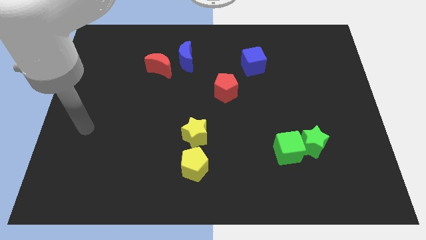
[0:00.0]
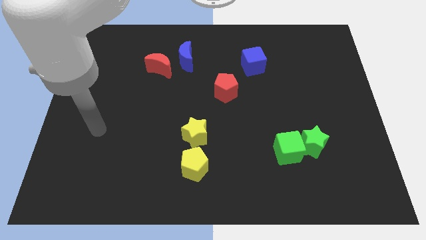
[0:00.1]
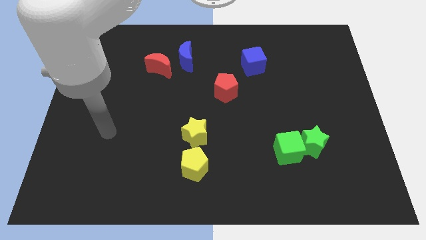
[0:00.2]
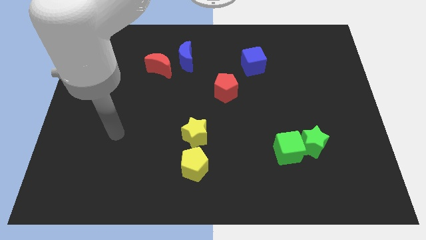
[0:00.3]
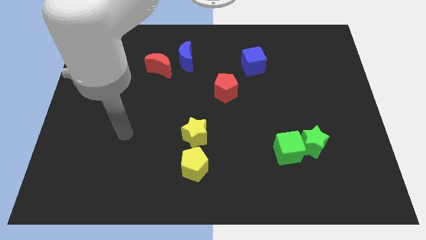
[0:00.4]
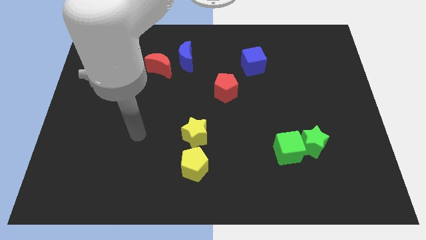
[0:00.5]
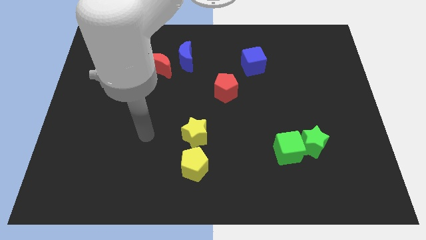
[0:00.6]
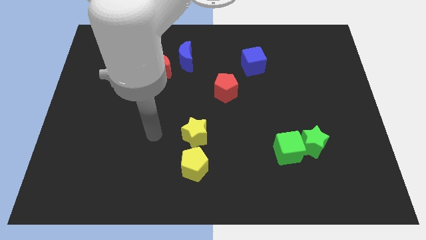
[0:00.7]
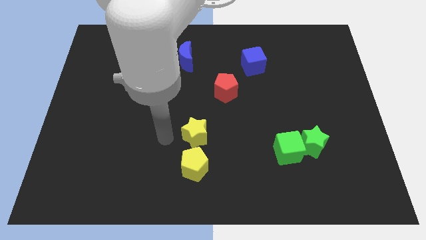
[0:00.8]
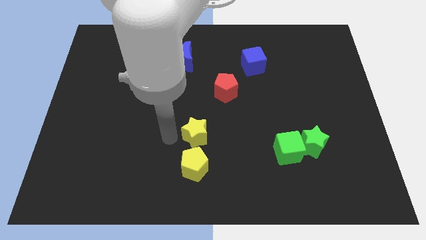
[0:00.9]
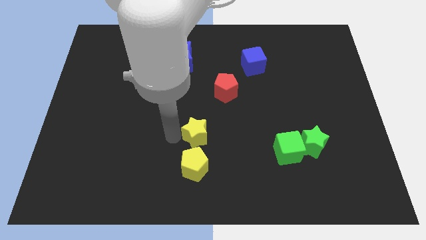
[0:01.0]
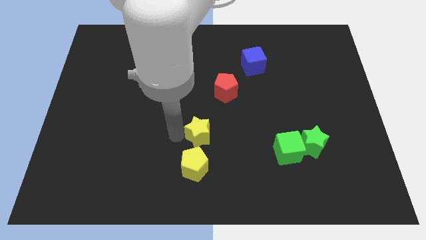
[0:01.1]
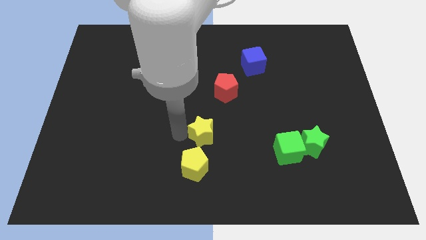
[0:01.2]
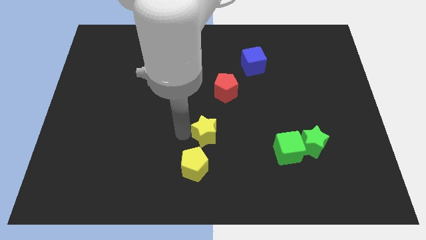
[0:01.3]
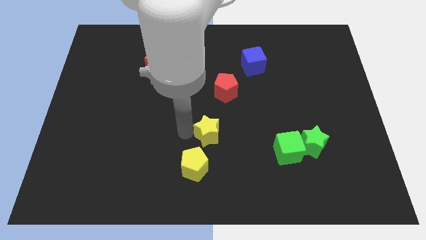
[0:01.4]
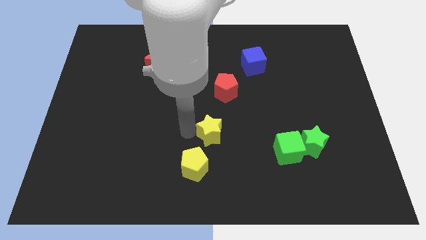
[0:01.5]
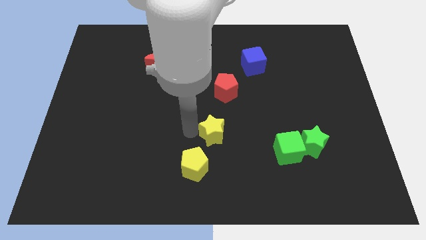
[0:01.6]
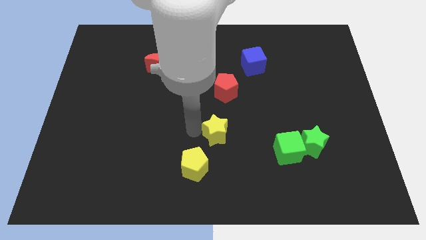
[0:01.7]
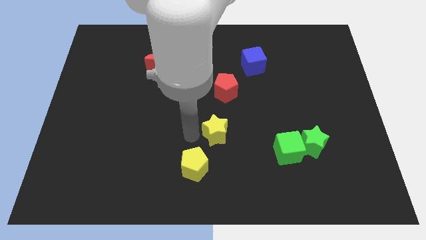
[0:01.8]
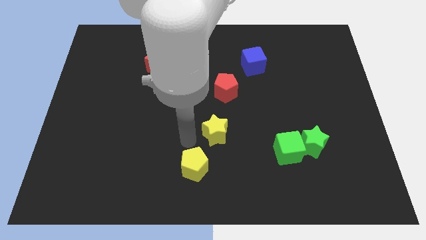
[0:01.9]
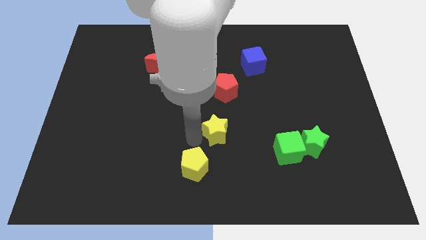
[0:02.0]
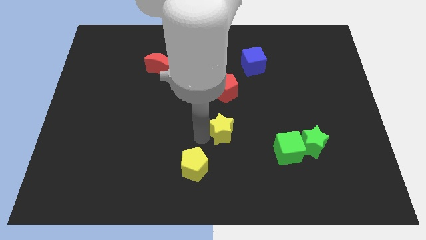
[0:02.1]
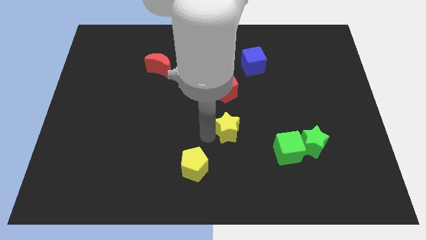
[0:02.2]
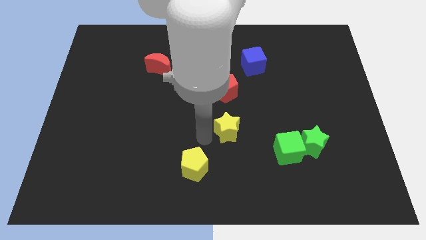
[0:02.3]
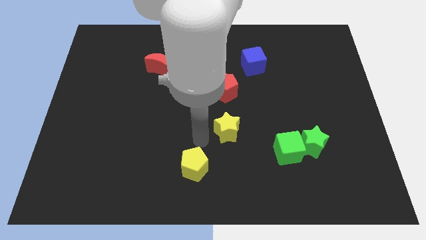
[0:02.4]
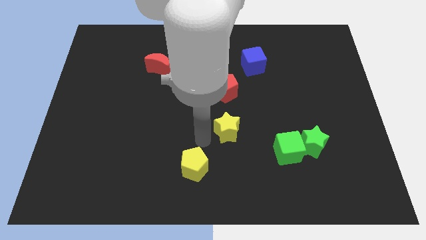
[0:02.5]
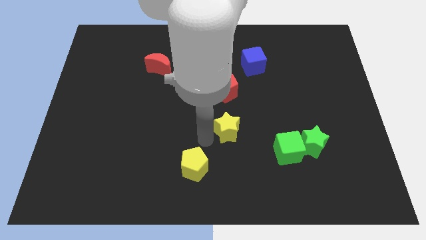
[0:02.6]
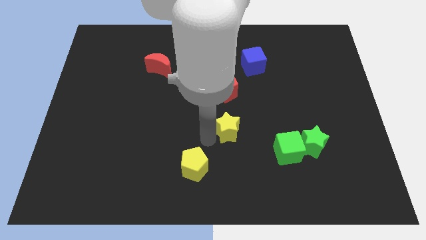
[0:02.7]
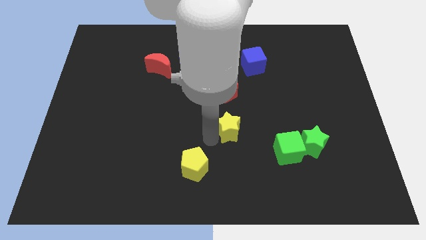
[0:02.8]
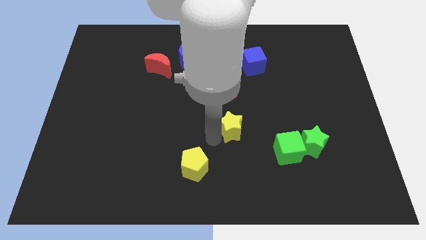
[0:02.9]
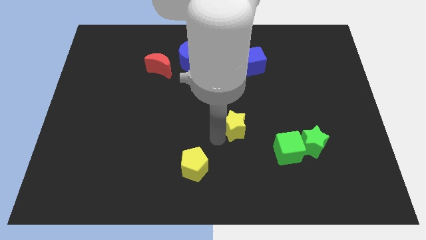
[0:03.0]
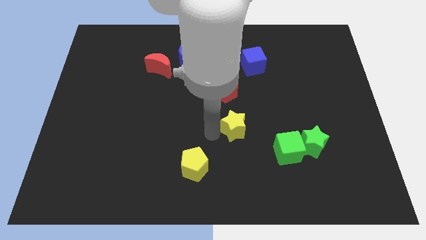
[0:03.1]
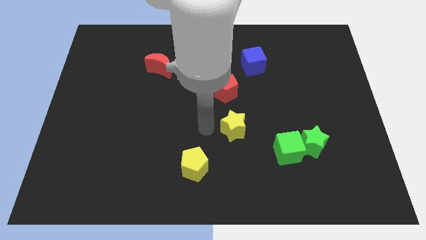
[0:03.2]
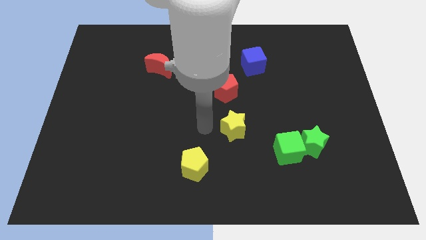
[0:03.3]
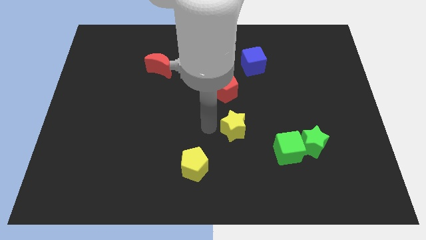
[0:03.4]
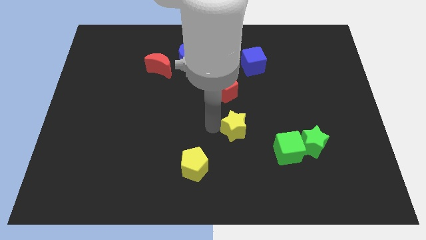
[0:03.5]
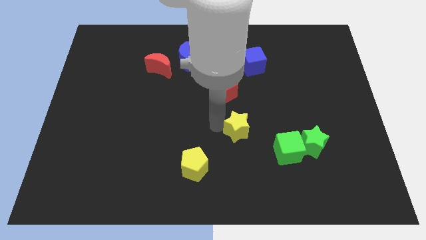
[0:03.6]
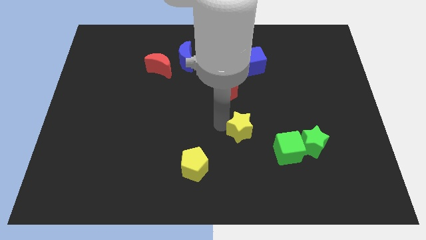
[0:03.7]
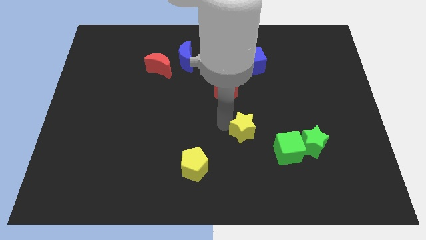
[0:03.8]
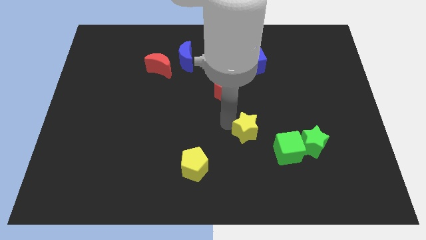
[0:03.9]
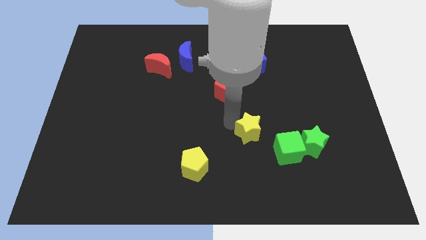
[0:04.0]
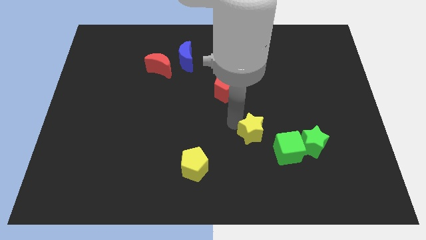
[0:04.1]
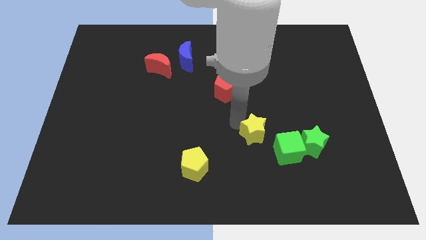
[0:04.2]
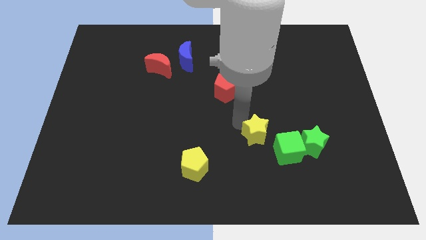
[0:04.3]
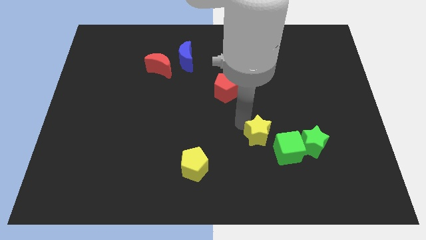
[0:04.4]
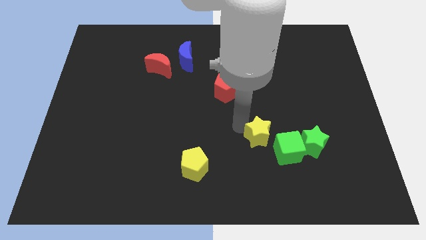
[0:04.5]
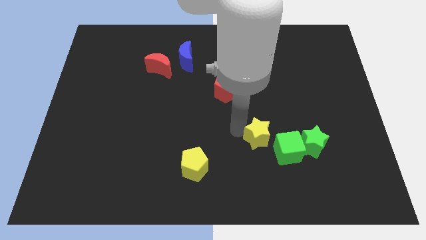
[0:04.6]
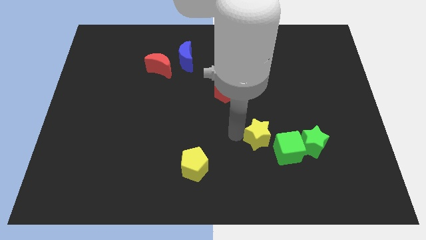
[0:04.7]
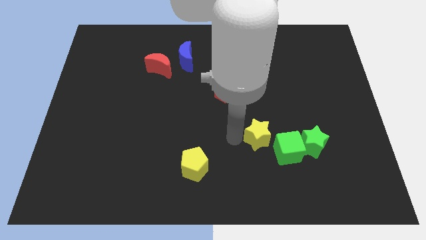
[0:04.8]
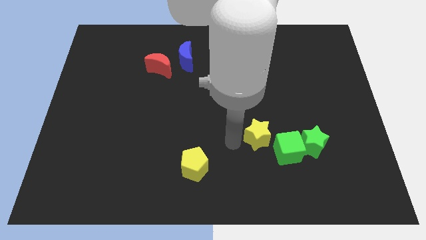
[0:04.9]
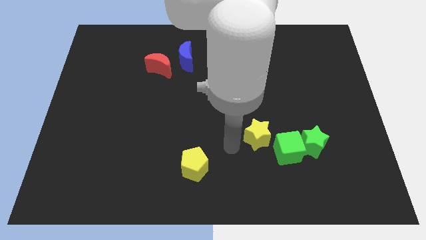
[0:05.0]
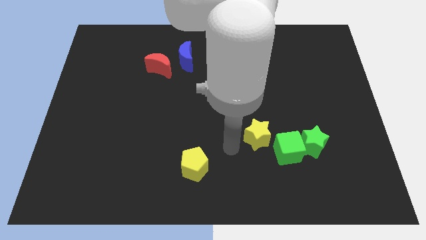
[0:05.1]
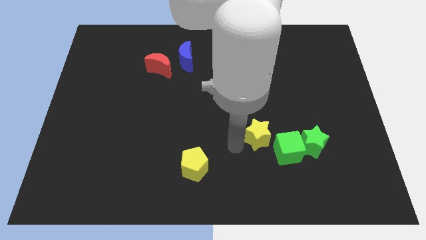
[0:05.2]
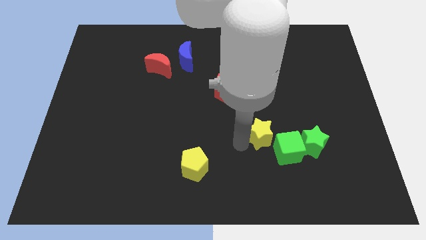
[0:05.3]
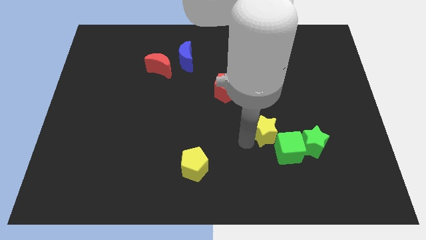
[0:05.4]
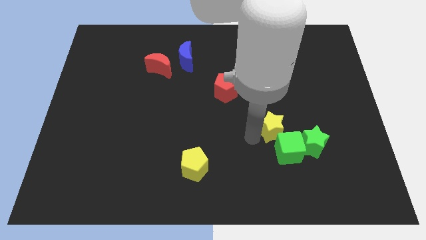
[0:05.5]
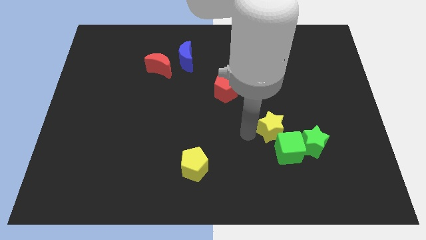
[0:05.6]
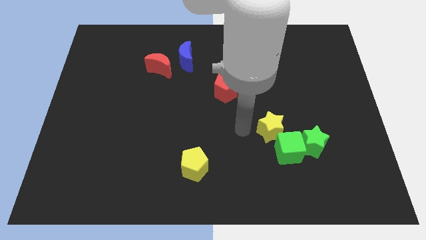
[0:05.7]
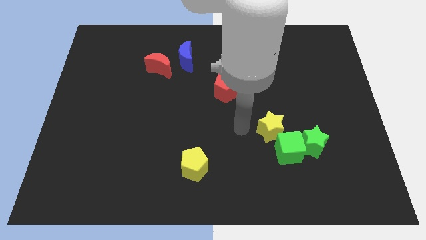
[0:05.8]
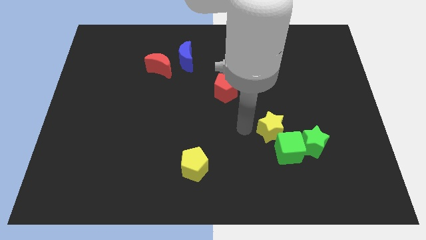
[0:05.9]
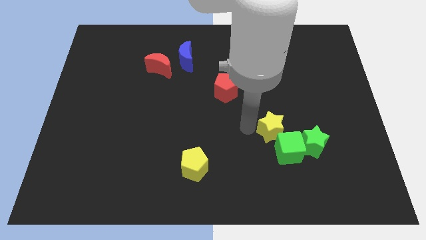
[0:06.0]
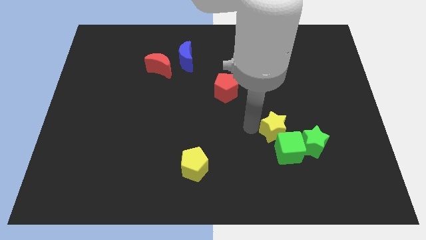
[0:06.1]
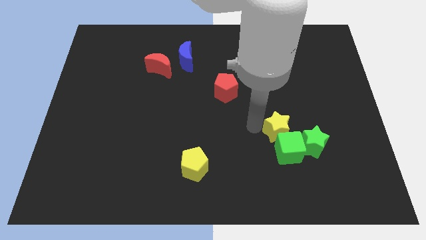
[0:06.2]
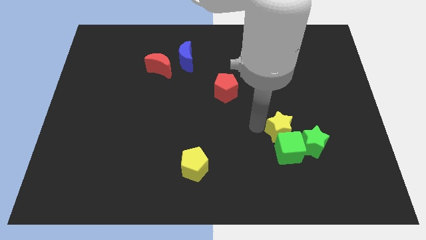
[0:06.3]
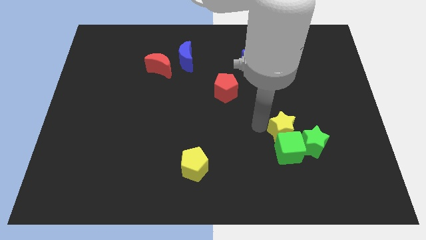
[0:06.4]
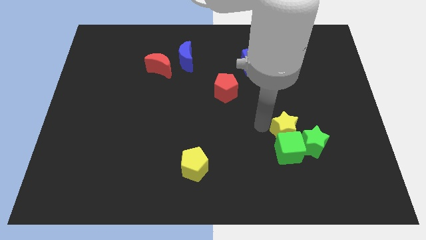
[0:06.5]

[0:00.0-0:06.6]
move the yellow star right

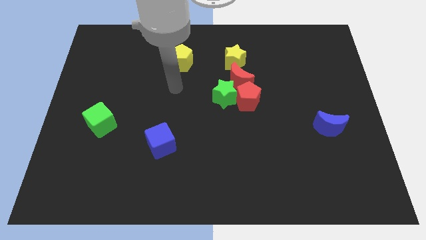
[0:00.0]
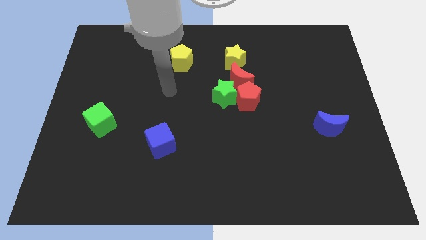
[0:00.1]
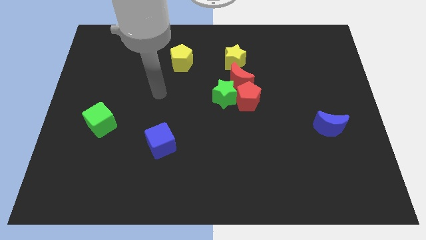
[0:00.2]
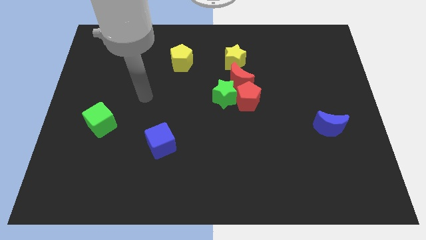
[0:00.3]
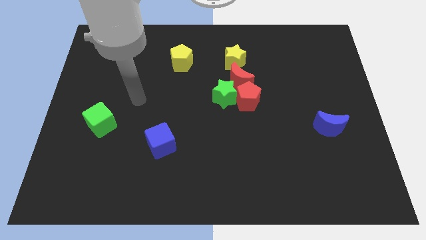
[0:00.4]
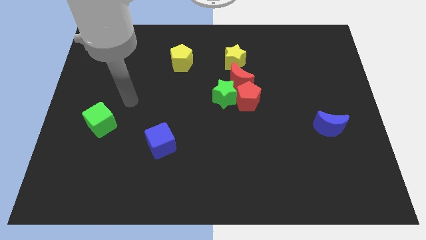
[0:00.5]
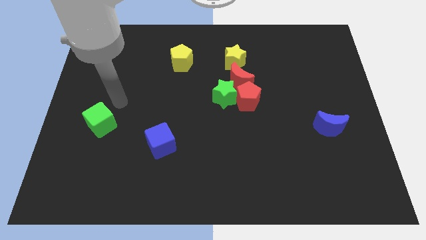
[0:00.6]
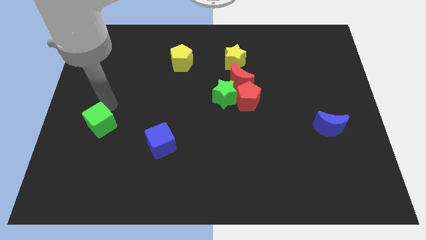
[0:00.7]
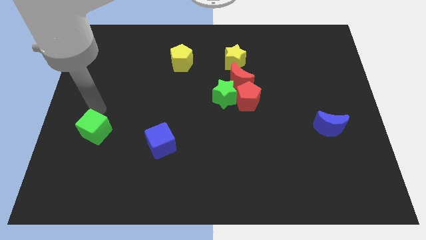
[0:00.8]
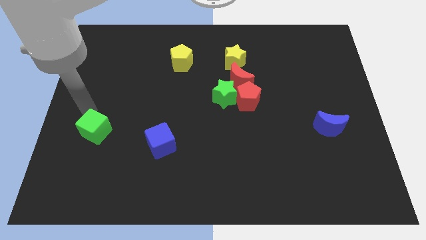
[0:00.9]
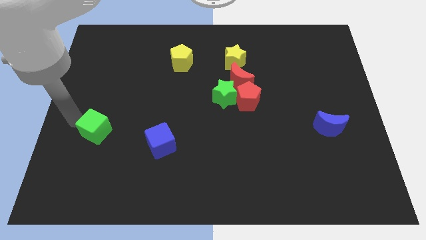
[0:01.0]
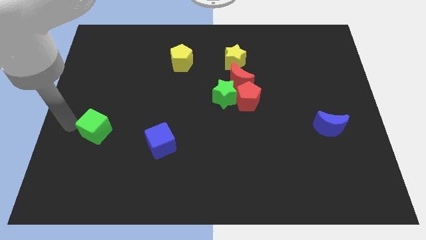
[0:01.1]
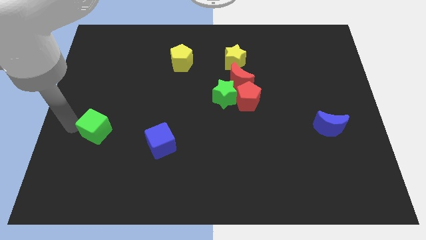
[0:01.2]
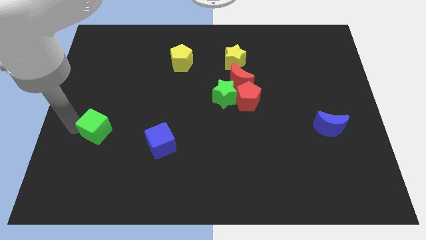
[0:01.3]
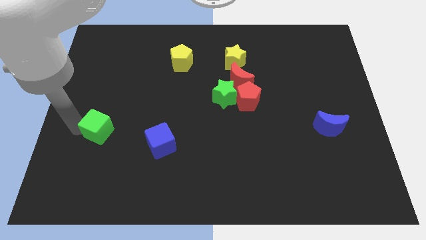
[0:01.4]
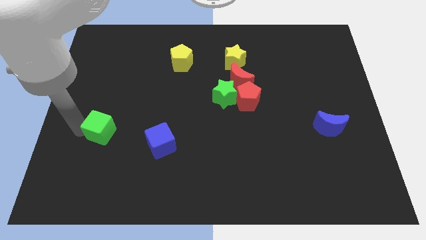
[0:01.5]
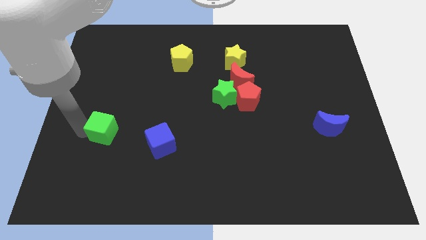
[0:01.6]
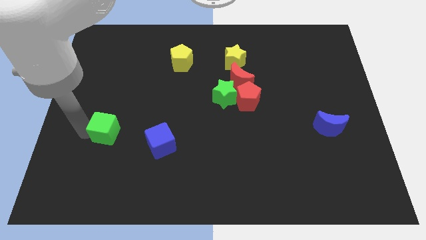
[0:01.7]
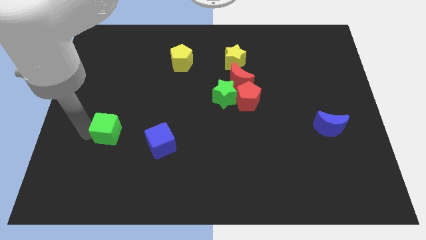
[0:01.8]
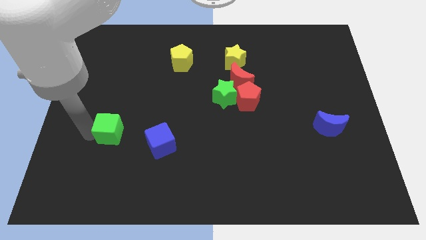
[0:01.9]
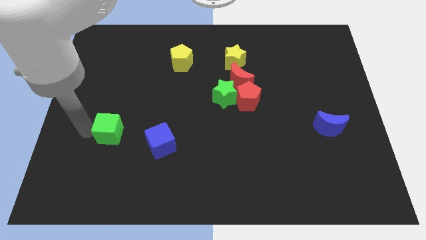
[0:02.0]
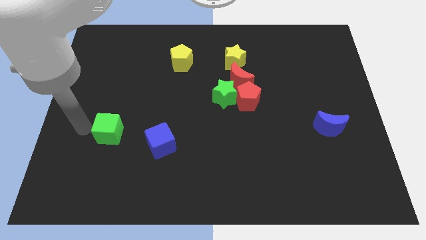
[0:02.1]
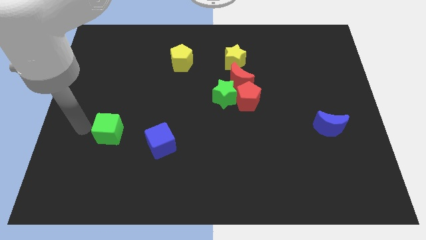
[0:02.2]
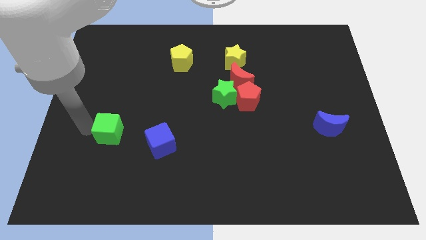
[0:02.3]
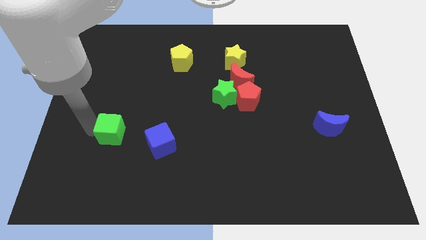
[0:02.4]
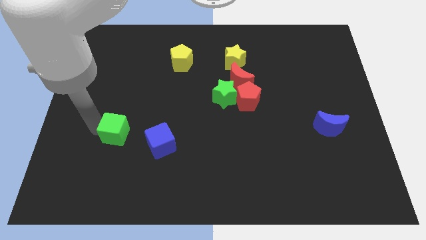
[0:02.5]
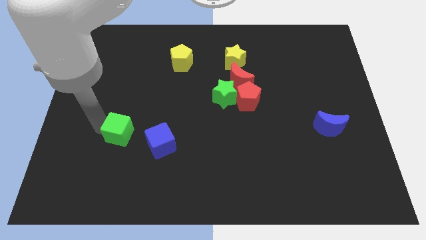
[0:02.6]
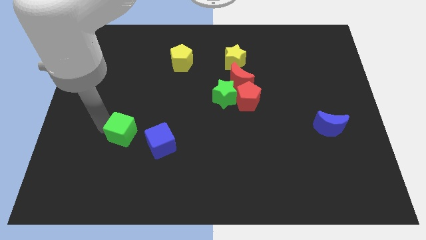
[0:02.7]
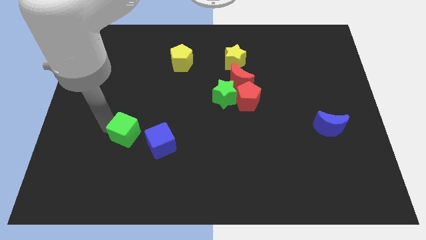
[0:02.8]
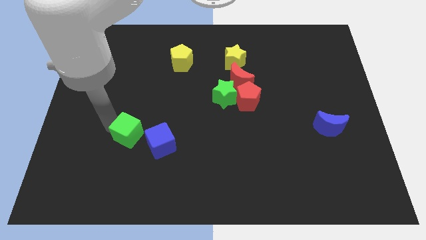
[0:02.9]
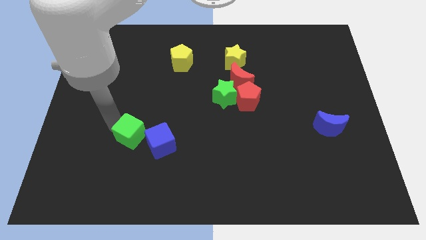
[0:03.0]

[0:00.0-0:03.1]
slightly move the green cube downwards and then to the right
